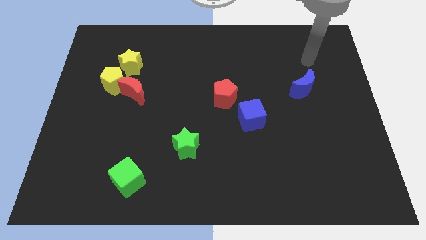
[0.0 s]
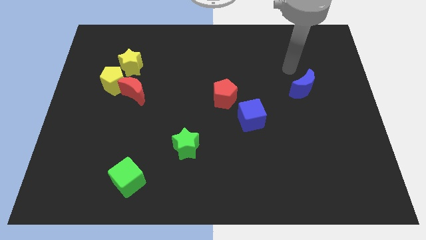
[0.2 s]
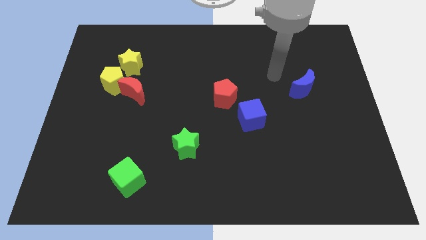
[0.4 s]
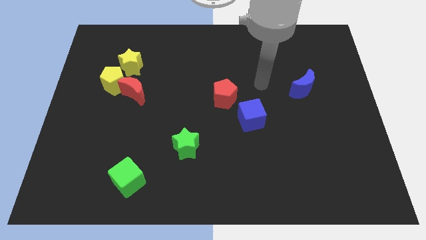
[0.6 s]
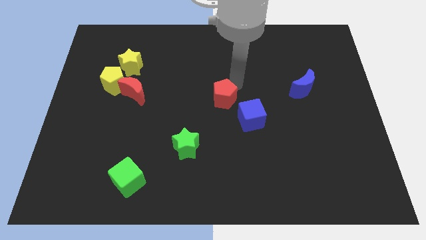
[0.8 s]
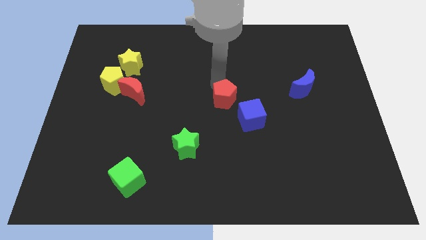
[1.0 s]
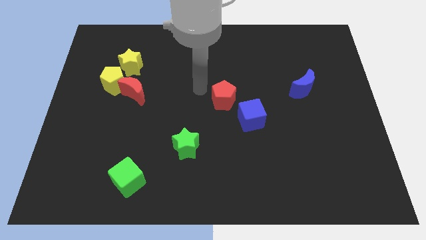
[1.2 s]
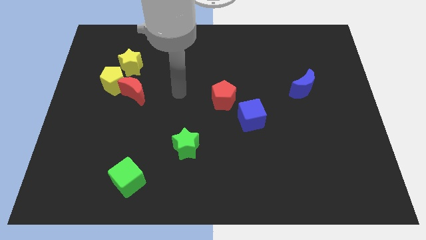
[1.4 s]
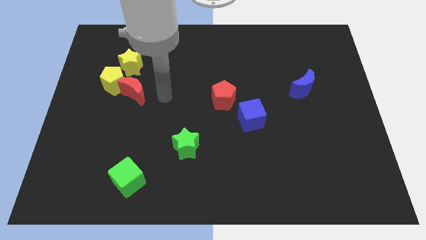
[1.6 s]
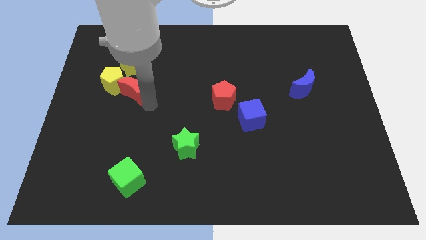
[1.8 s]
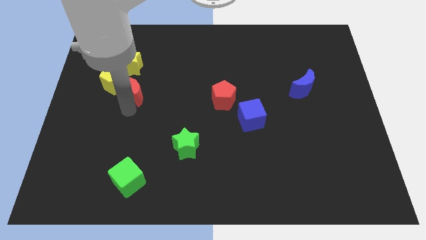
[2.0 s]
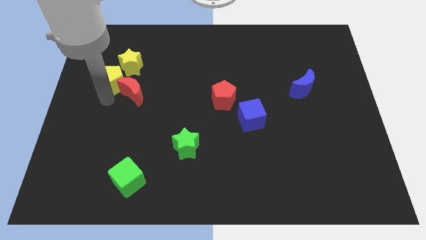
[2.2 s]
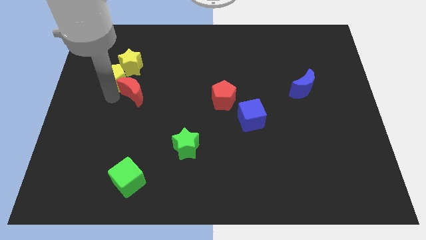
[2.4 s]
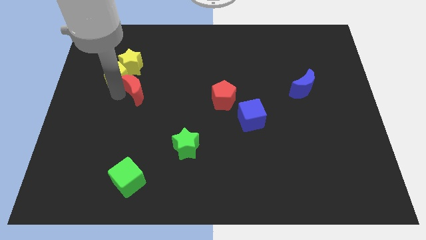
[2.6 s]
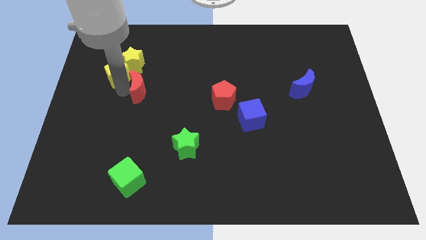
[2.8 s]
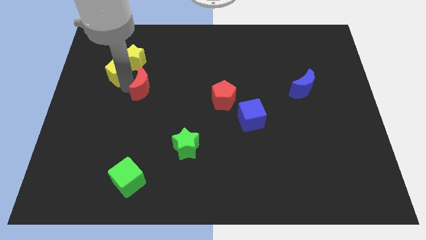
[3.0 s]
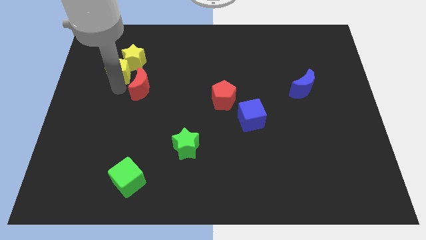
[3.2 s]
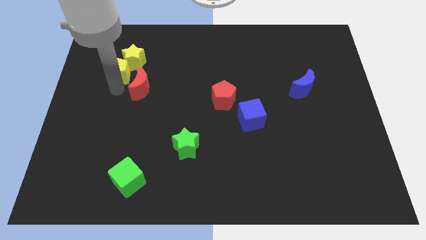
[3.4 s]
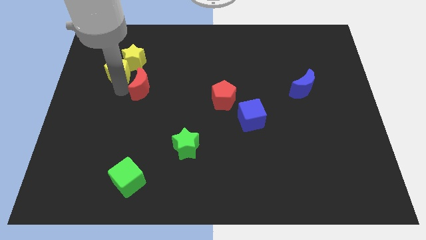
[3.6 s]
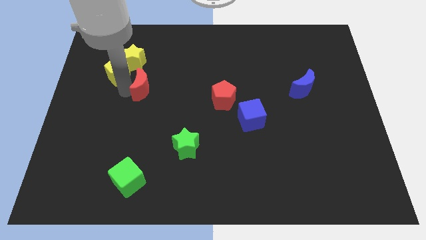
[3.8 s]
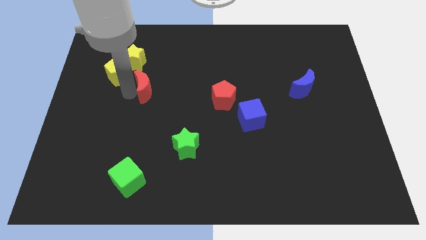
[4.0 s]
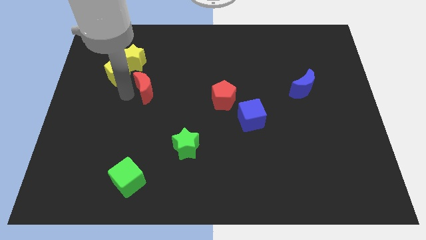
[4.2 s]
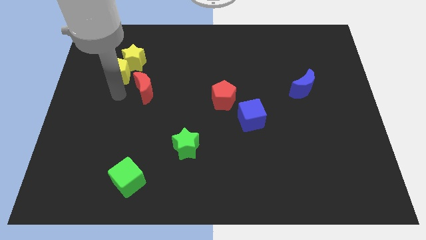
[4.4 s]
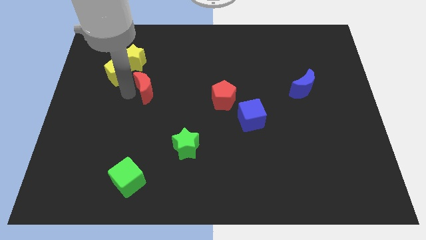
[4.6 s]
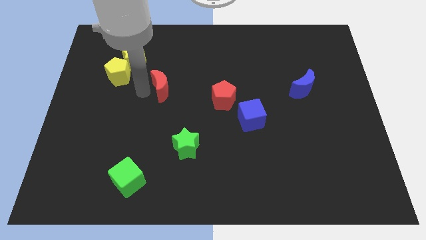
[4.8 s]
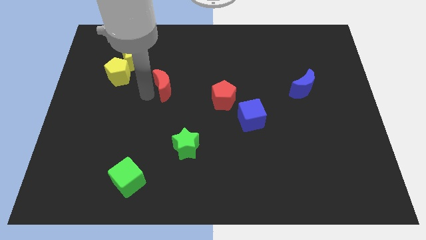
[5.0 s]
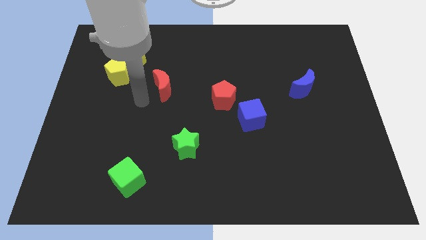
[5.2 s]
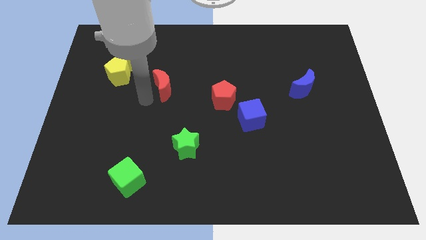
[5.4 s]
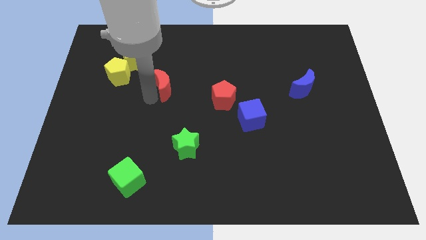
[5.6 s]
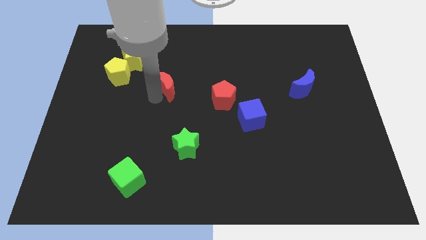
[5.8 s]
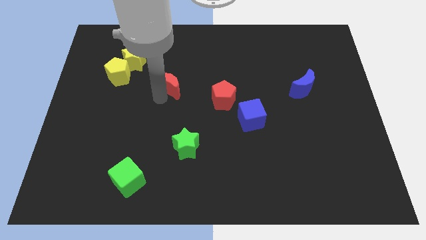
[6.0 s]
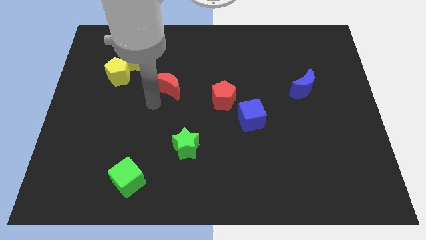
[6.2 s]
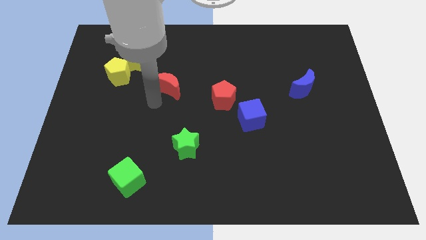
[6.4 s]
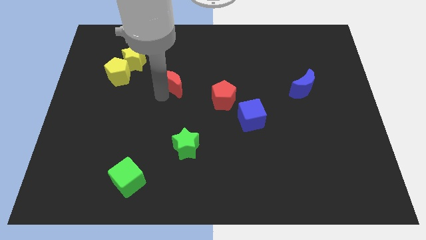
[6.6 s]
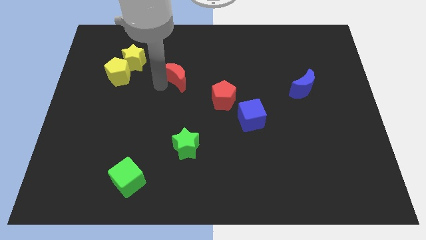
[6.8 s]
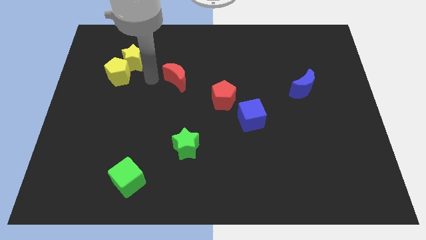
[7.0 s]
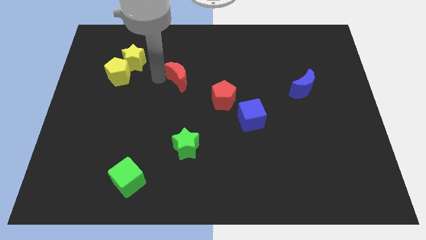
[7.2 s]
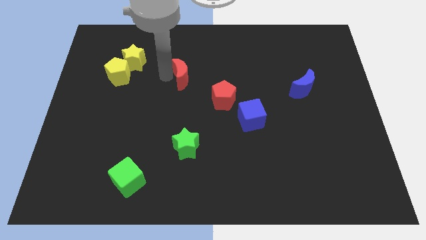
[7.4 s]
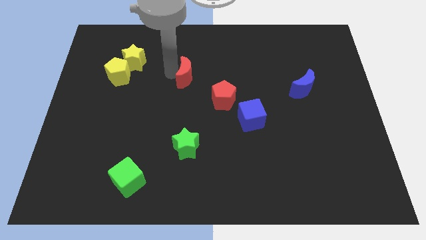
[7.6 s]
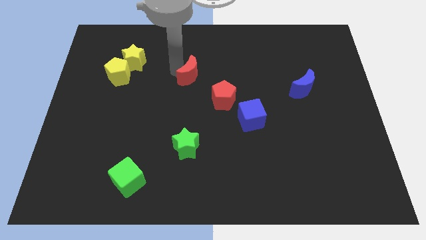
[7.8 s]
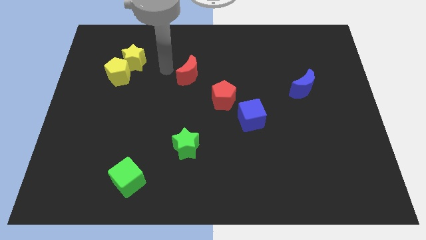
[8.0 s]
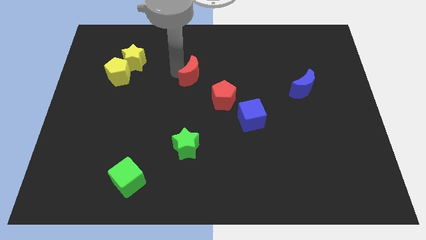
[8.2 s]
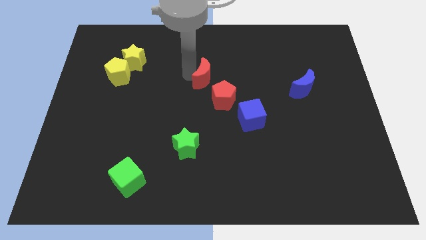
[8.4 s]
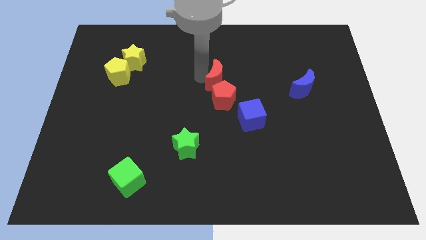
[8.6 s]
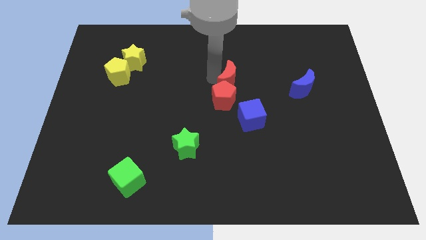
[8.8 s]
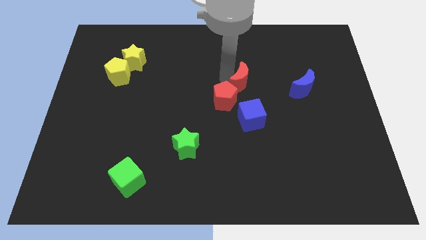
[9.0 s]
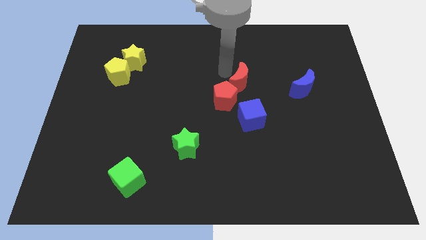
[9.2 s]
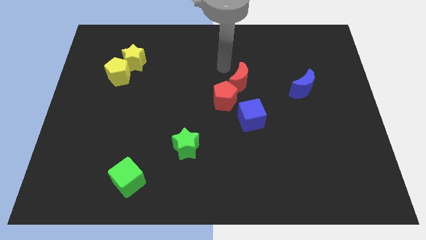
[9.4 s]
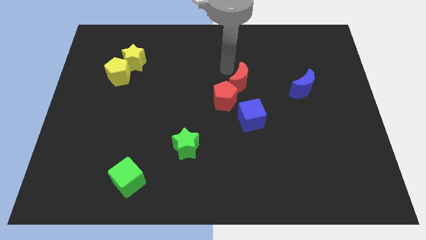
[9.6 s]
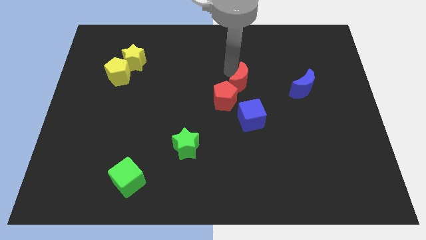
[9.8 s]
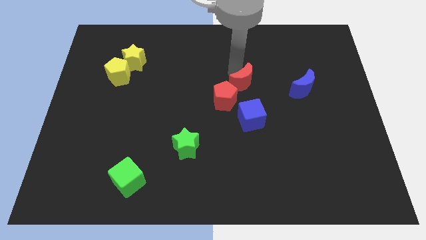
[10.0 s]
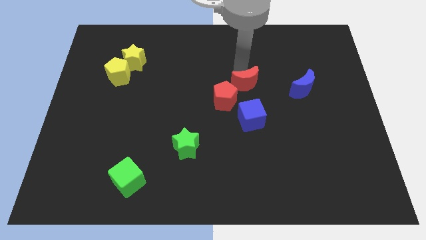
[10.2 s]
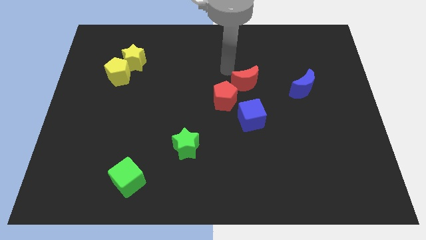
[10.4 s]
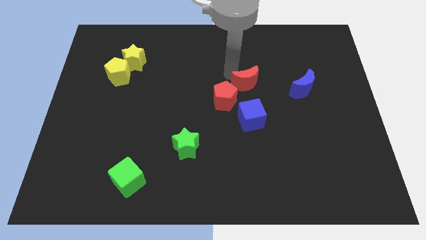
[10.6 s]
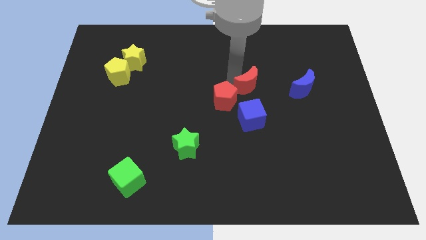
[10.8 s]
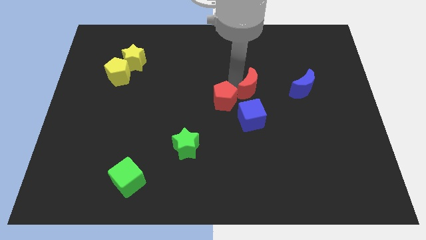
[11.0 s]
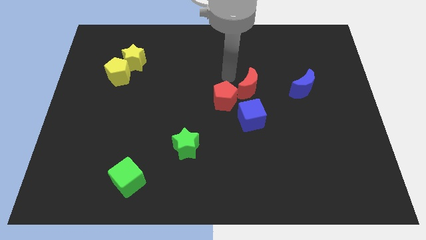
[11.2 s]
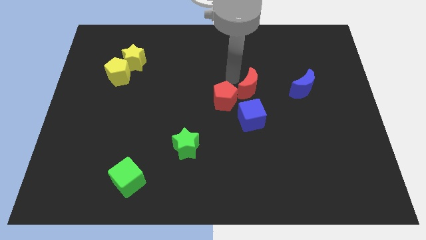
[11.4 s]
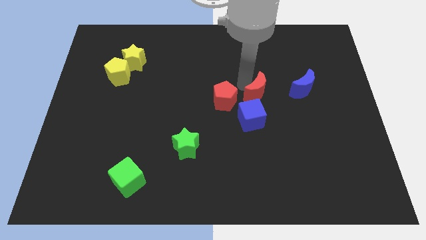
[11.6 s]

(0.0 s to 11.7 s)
slide the red moon to the top right of the blue cube

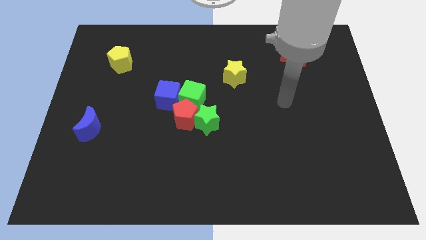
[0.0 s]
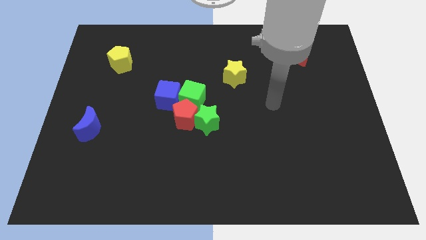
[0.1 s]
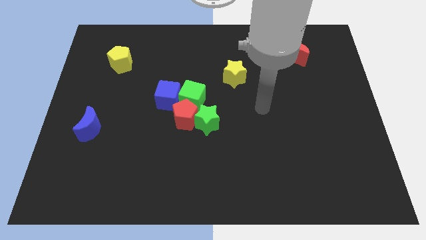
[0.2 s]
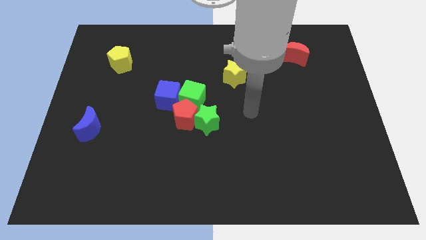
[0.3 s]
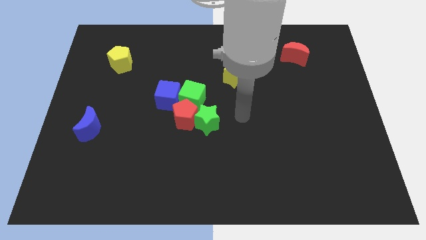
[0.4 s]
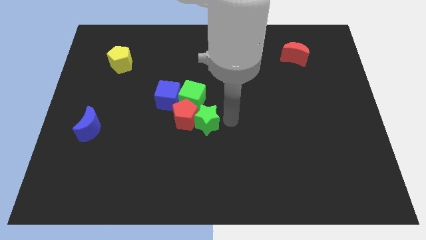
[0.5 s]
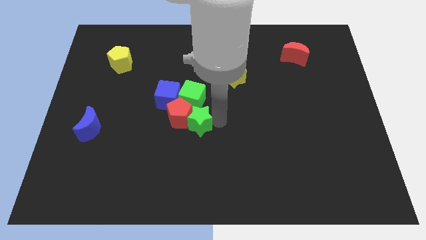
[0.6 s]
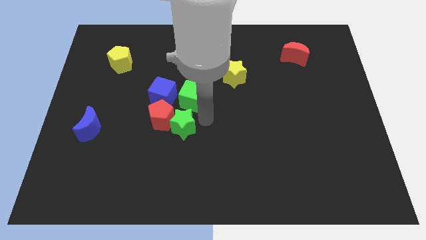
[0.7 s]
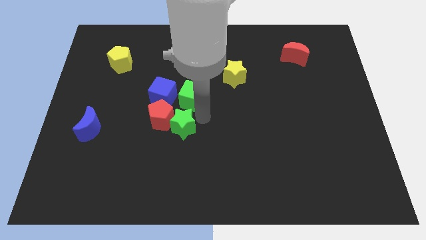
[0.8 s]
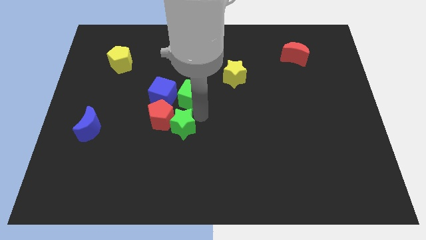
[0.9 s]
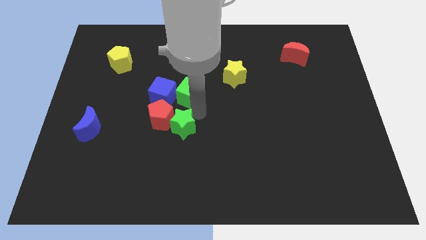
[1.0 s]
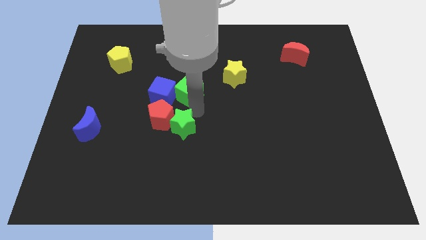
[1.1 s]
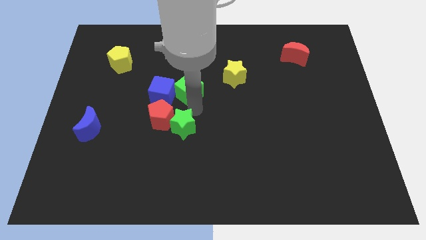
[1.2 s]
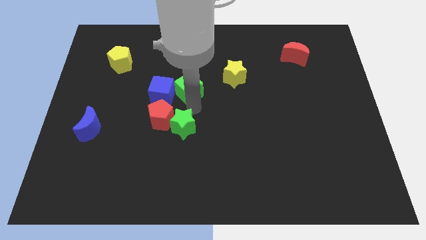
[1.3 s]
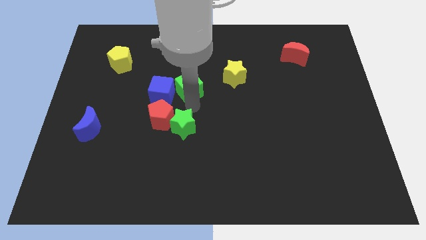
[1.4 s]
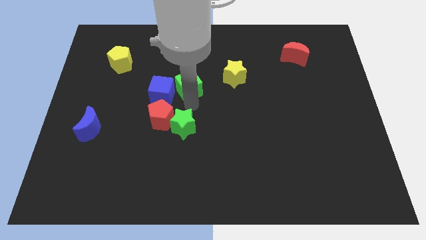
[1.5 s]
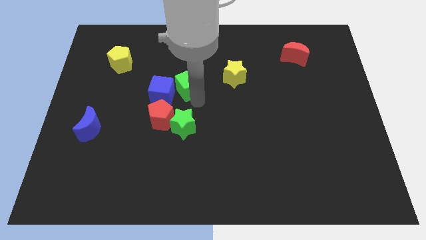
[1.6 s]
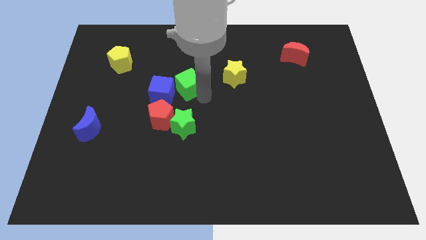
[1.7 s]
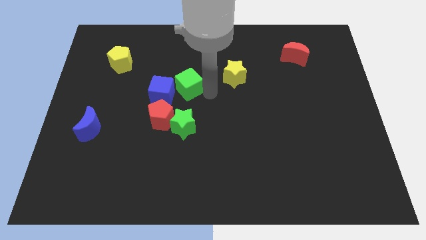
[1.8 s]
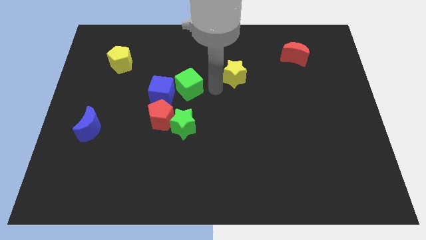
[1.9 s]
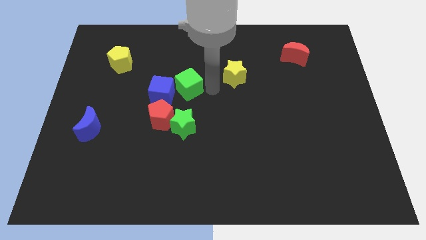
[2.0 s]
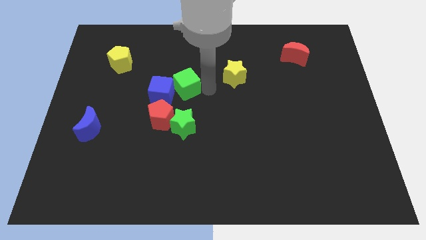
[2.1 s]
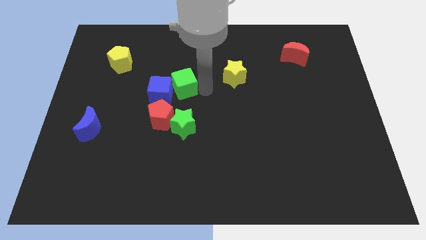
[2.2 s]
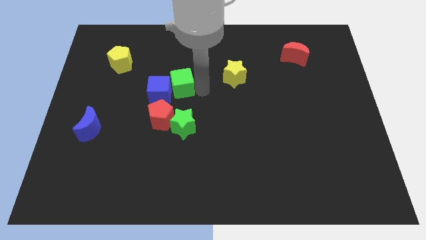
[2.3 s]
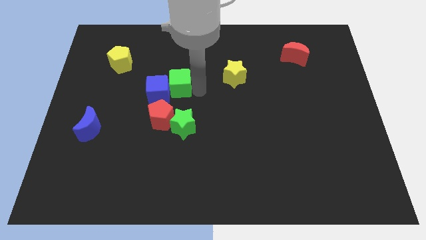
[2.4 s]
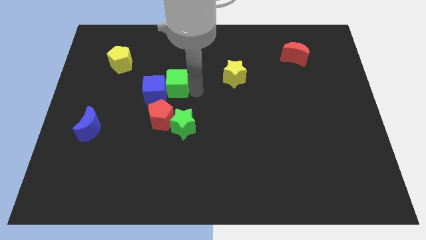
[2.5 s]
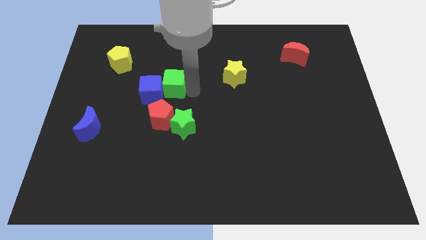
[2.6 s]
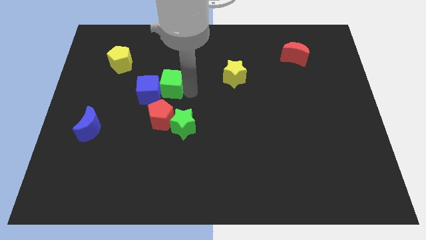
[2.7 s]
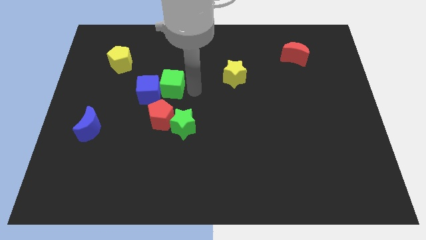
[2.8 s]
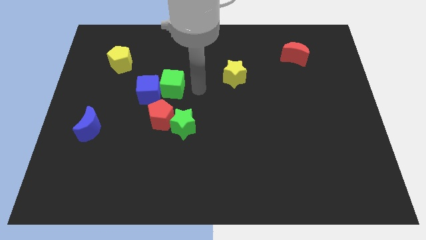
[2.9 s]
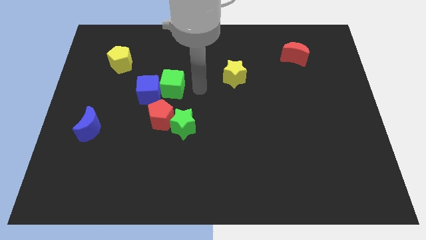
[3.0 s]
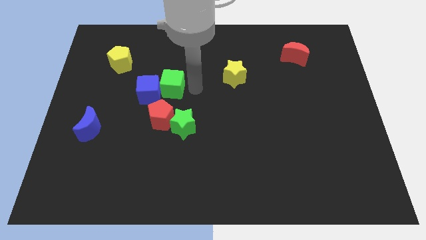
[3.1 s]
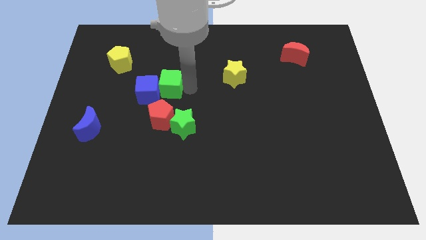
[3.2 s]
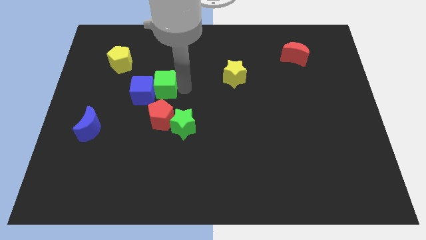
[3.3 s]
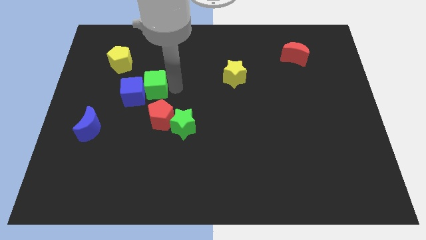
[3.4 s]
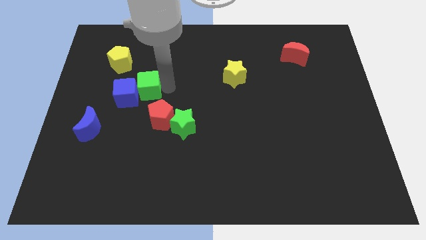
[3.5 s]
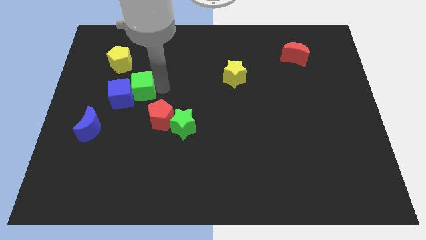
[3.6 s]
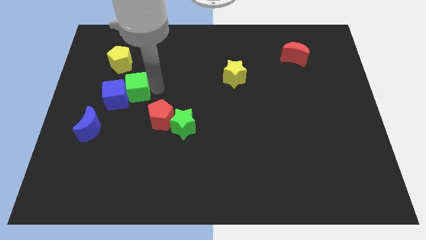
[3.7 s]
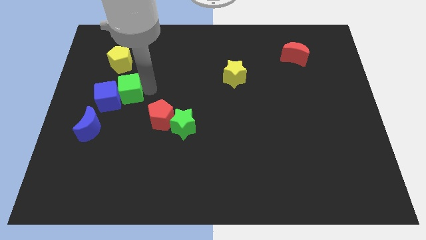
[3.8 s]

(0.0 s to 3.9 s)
move the green cube to the bottom side of the yellow pentagon
